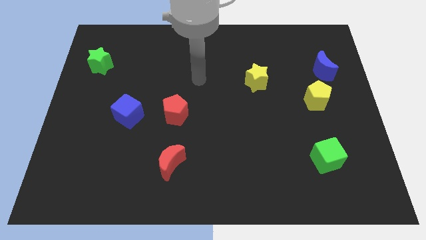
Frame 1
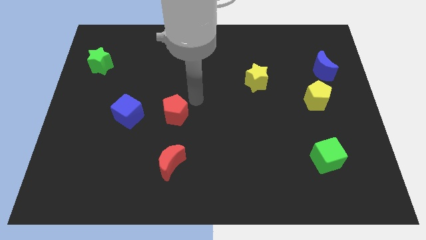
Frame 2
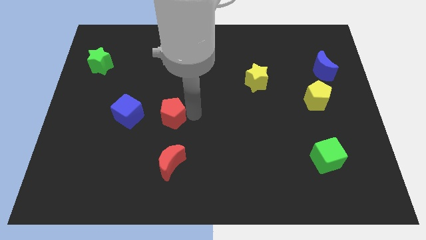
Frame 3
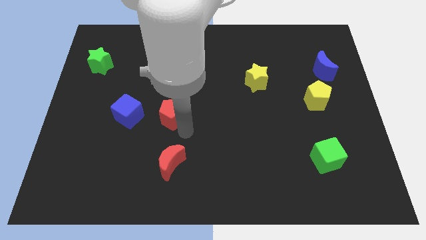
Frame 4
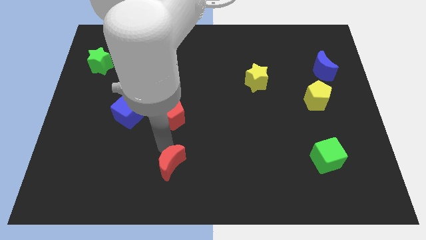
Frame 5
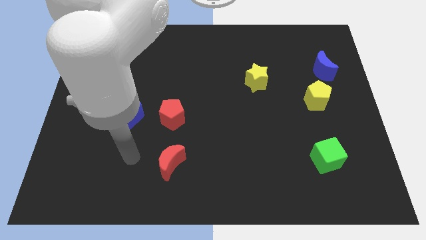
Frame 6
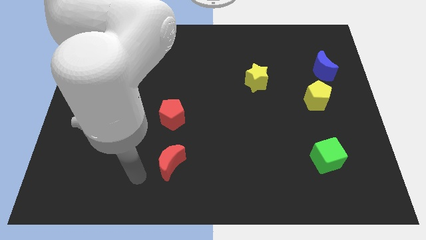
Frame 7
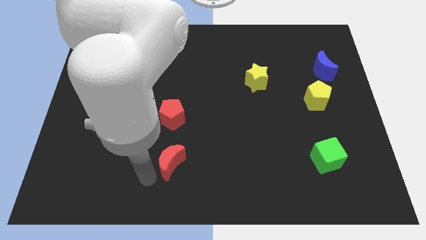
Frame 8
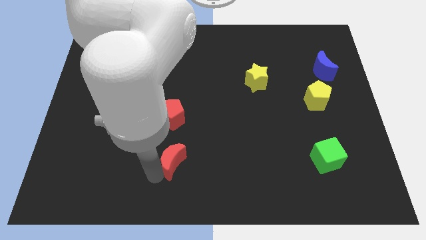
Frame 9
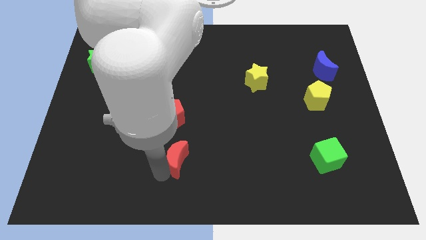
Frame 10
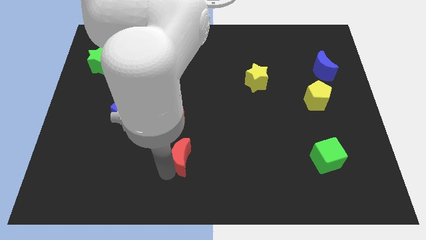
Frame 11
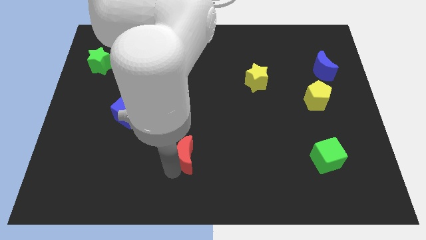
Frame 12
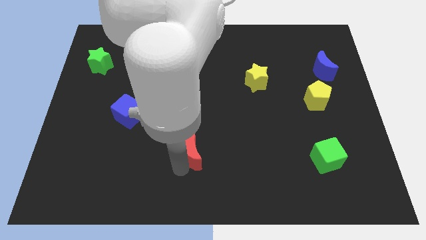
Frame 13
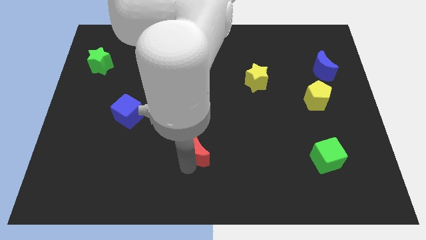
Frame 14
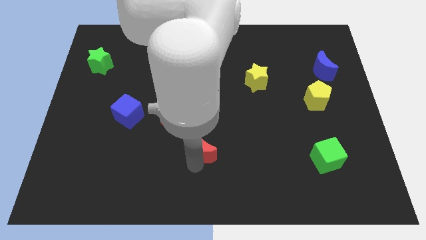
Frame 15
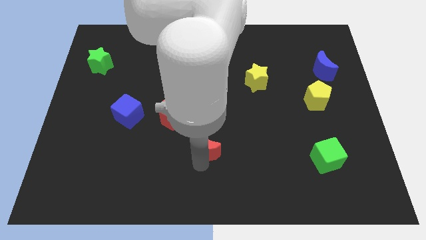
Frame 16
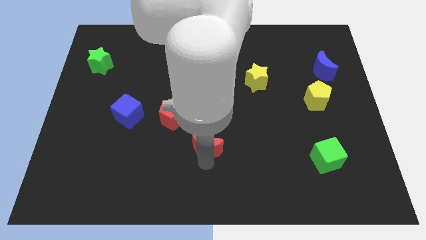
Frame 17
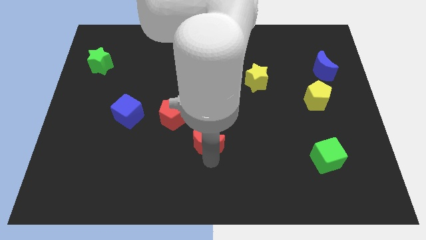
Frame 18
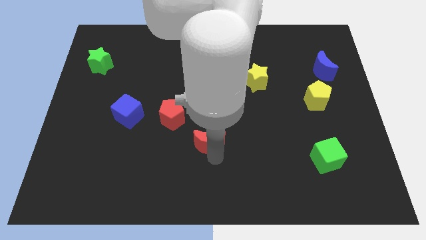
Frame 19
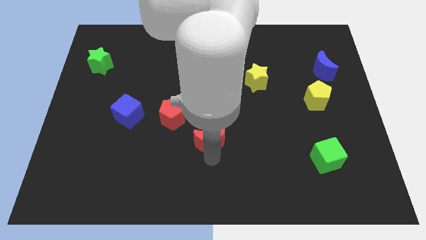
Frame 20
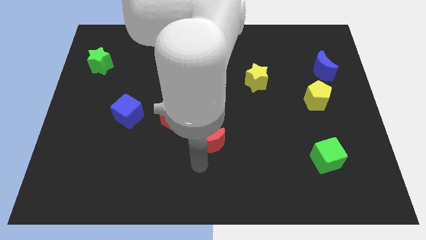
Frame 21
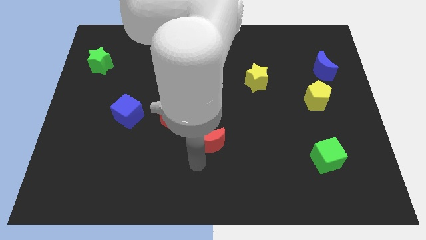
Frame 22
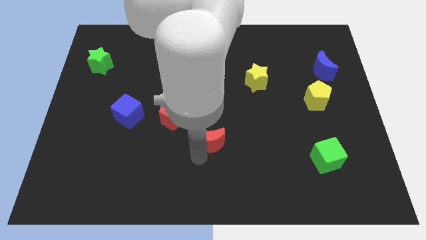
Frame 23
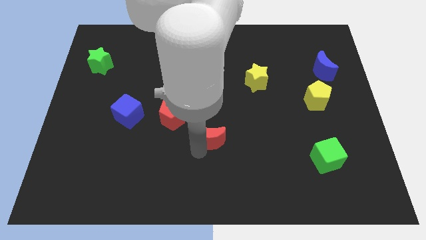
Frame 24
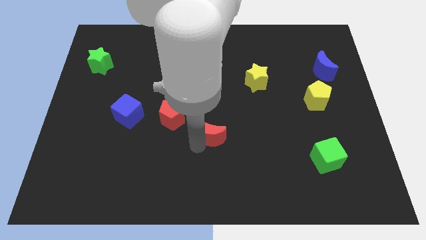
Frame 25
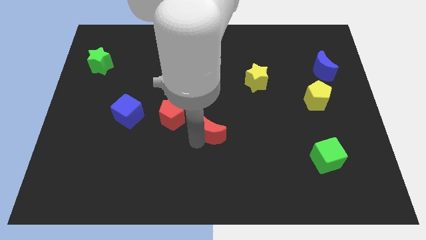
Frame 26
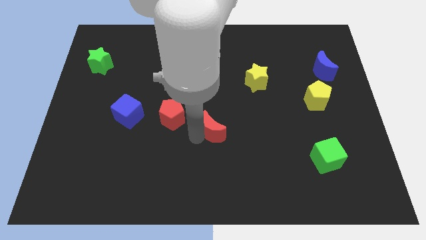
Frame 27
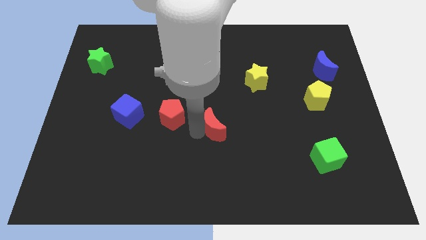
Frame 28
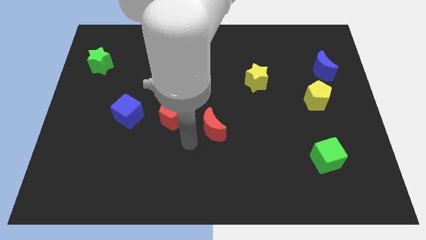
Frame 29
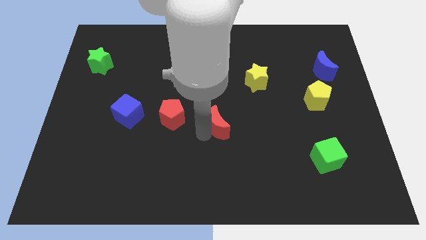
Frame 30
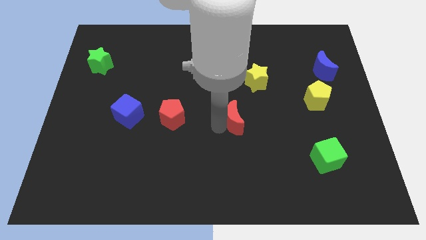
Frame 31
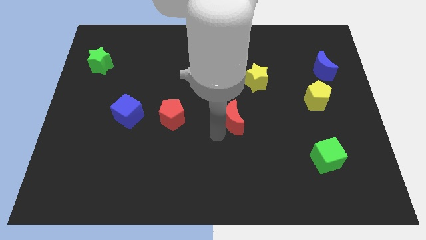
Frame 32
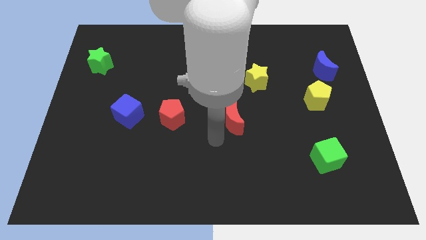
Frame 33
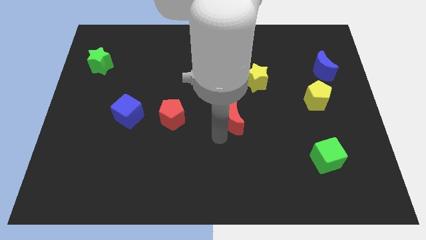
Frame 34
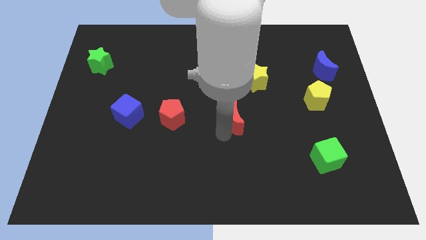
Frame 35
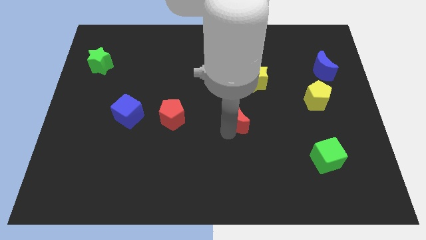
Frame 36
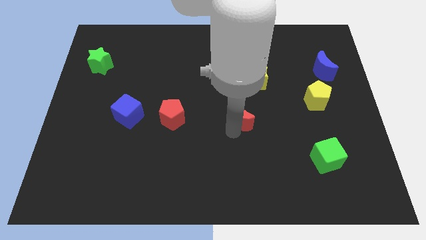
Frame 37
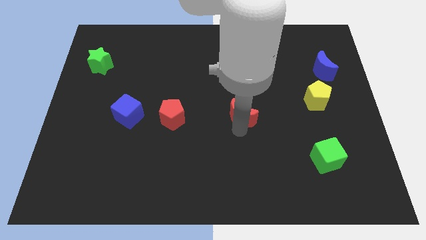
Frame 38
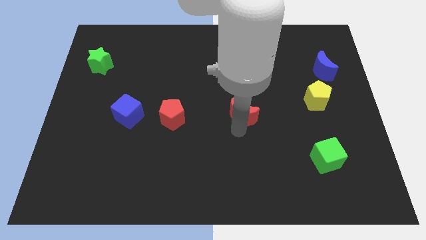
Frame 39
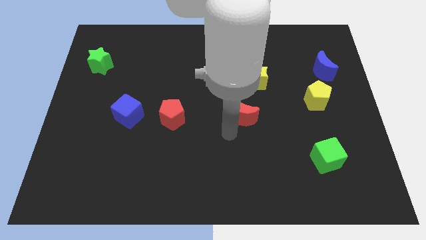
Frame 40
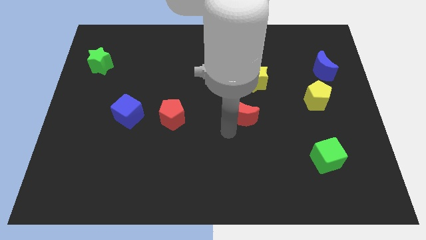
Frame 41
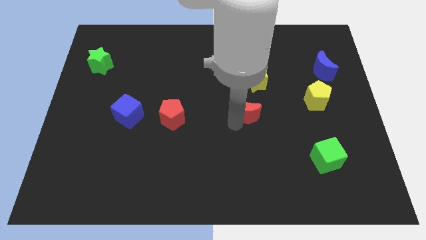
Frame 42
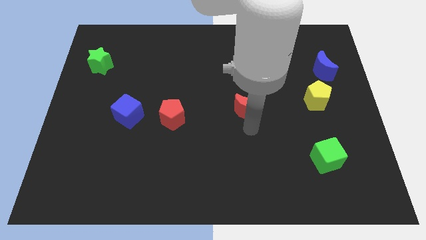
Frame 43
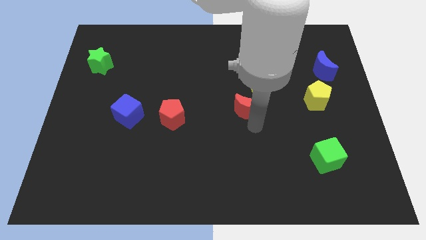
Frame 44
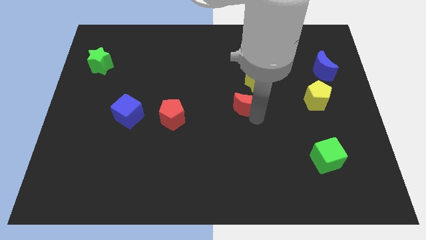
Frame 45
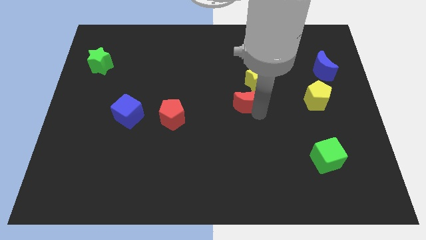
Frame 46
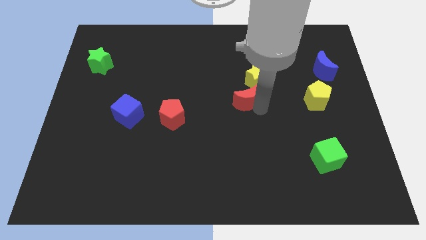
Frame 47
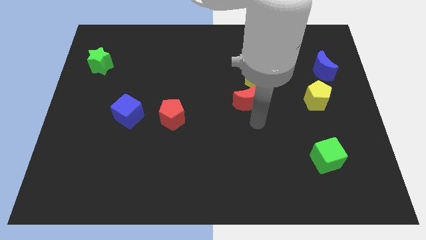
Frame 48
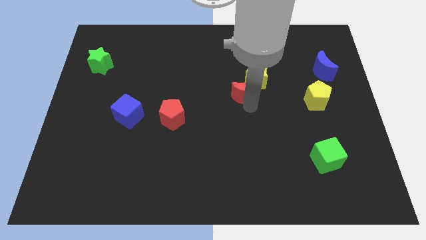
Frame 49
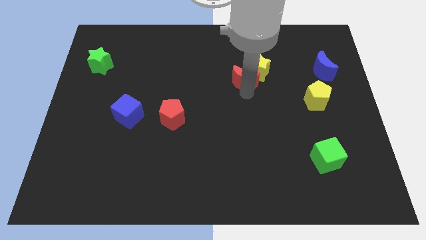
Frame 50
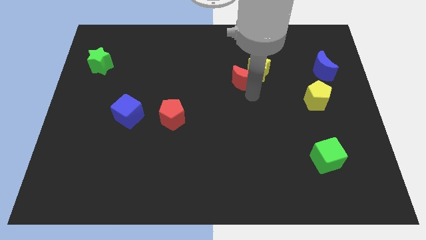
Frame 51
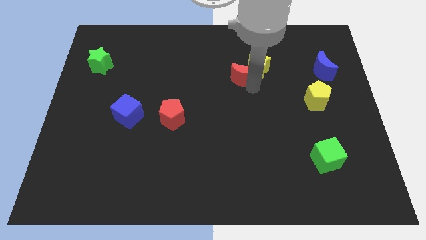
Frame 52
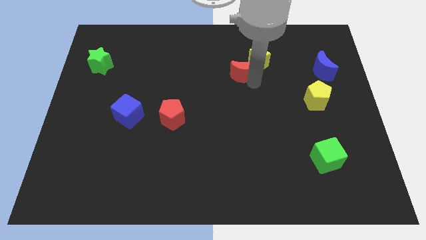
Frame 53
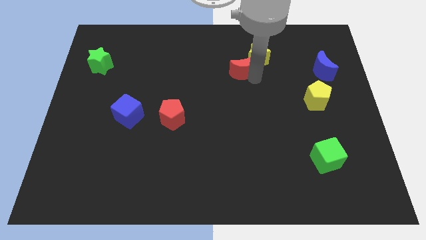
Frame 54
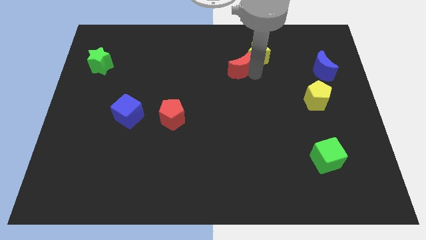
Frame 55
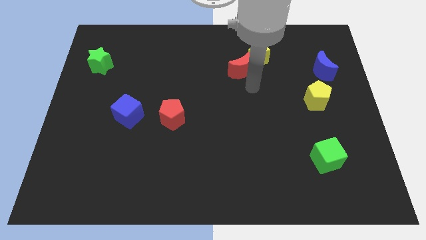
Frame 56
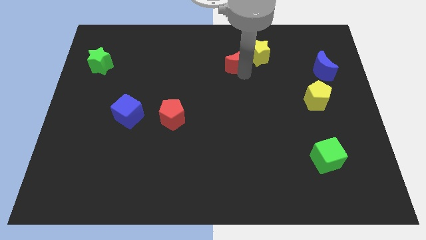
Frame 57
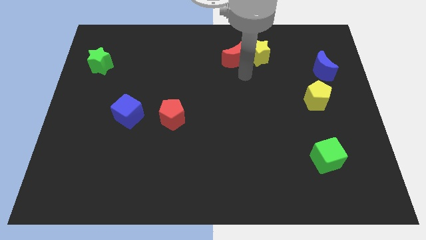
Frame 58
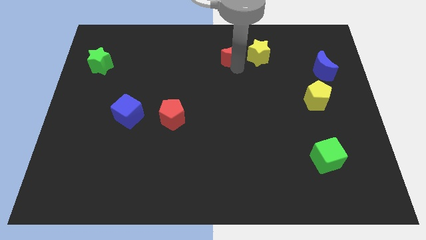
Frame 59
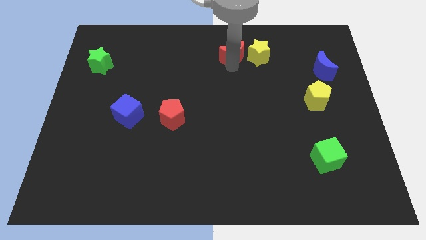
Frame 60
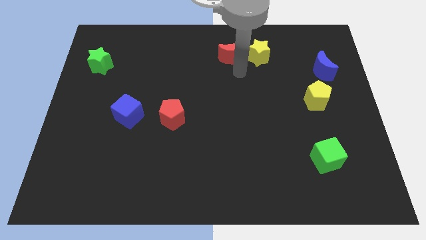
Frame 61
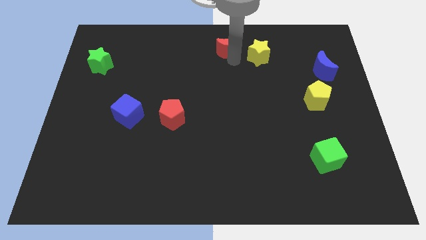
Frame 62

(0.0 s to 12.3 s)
push the red moon to the top side

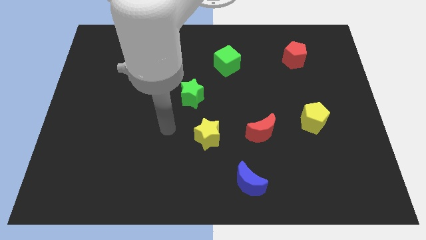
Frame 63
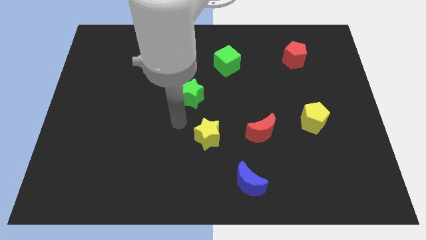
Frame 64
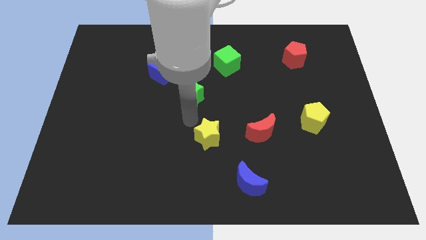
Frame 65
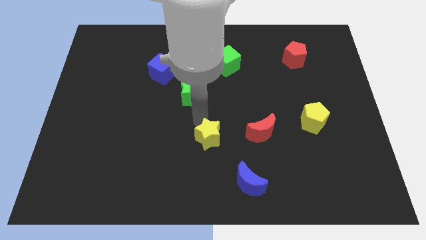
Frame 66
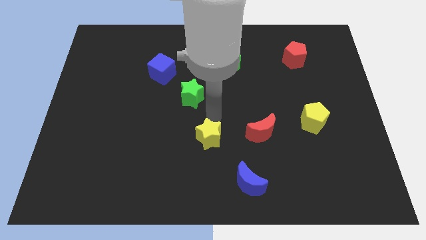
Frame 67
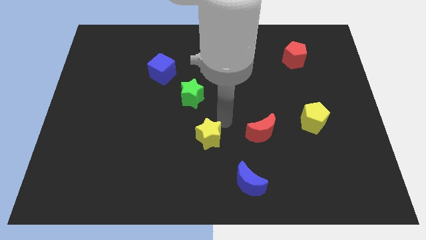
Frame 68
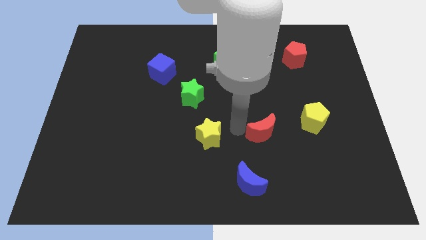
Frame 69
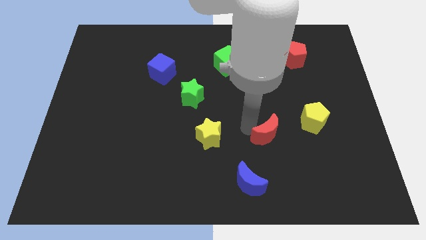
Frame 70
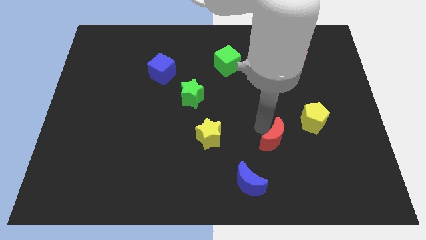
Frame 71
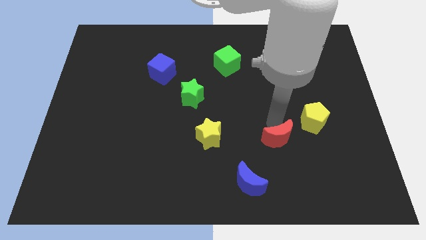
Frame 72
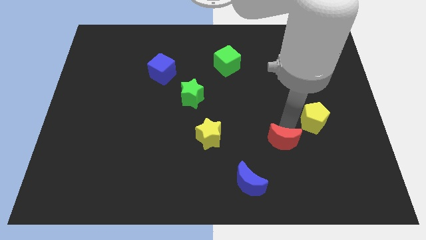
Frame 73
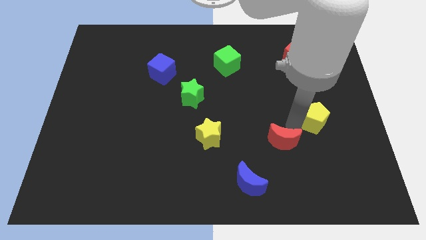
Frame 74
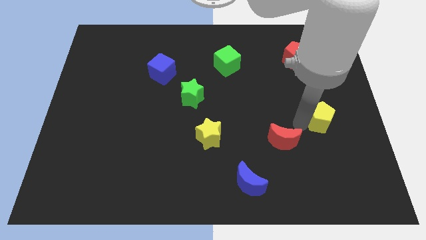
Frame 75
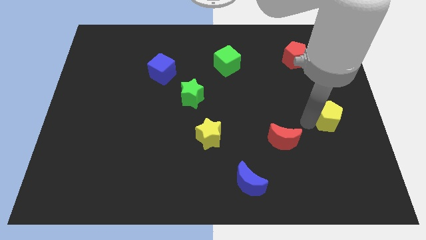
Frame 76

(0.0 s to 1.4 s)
push the yellow pentagon to the center right

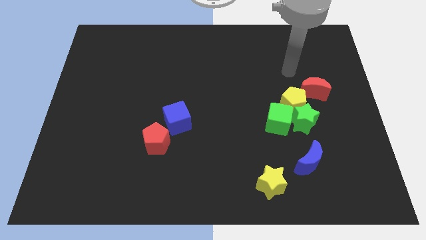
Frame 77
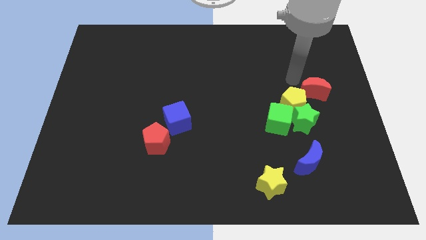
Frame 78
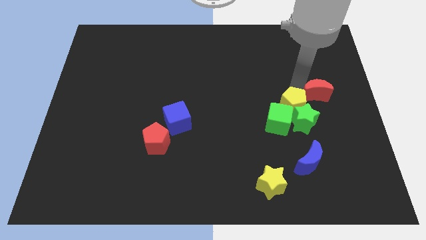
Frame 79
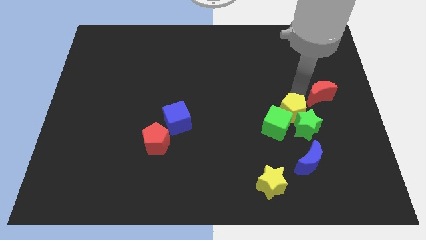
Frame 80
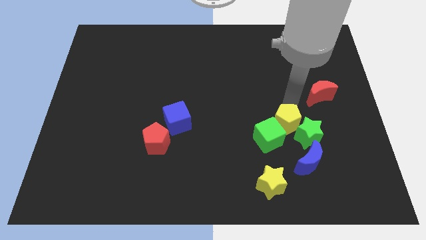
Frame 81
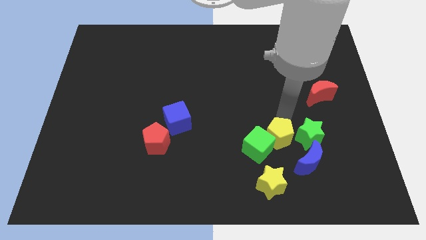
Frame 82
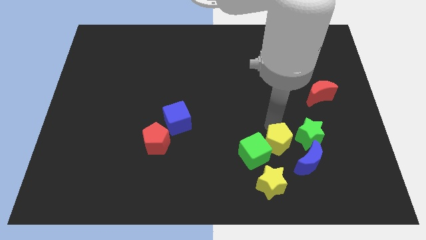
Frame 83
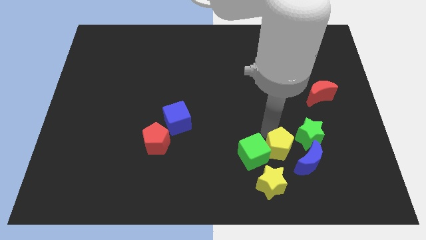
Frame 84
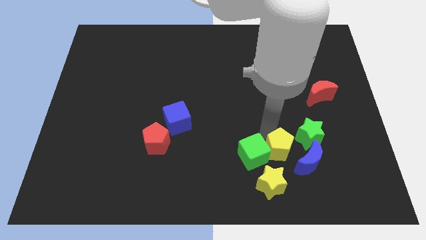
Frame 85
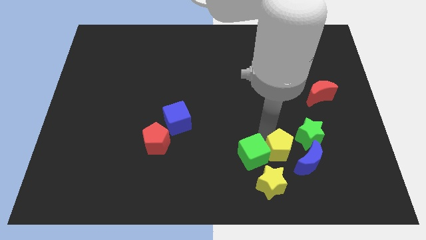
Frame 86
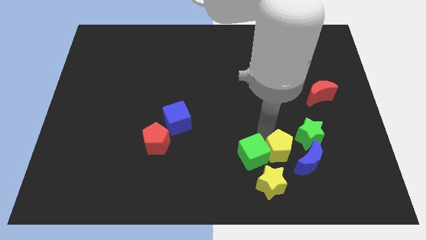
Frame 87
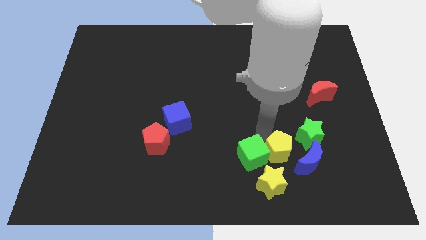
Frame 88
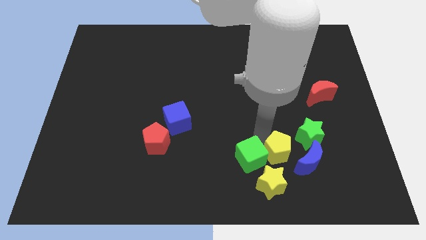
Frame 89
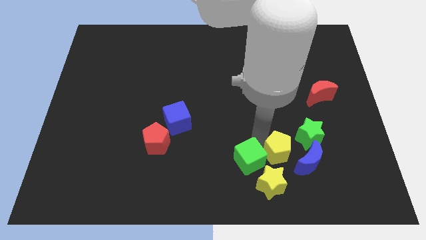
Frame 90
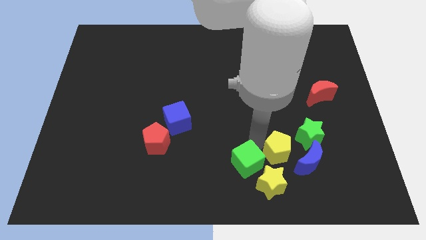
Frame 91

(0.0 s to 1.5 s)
push the green cube to the bottom
